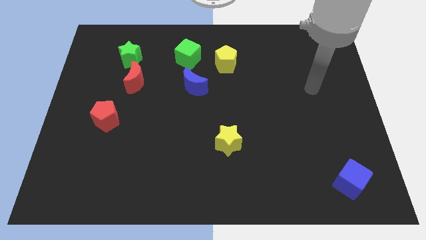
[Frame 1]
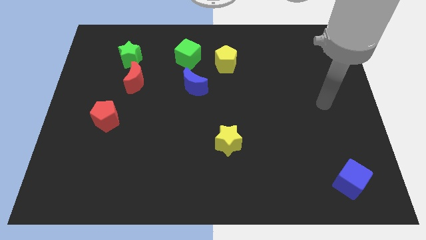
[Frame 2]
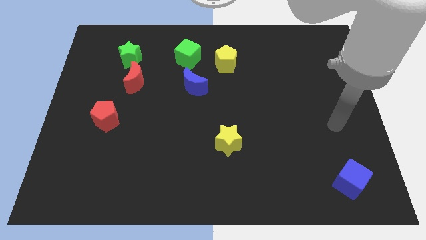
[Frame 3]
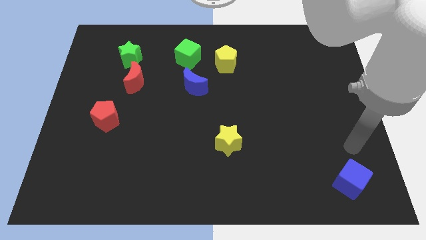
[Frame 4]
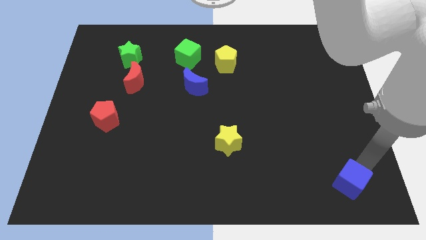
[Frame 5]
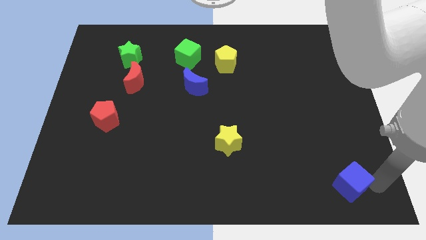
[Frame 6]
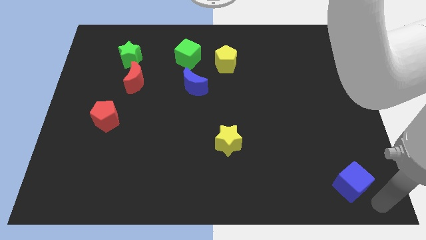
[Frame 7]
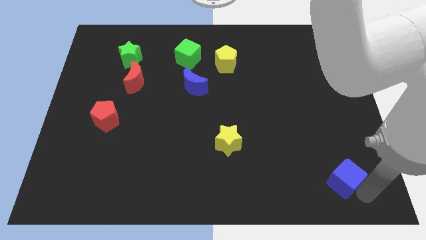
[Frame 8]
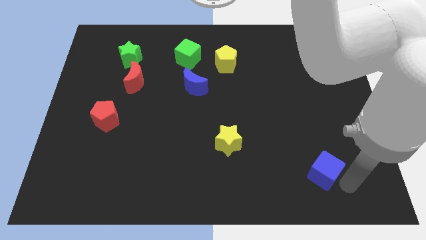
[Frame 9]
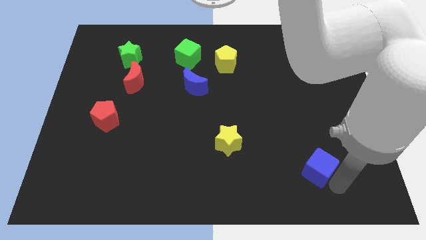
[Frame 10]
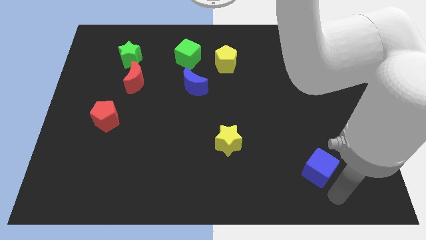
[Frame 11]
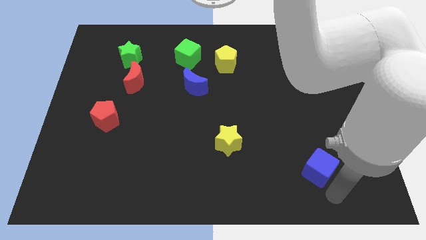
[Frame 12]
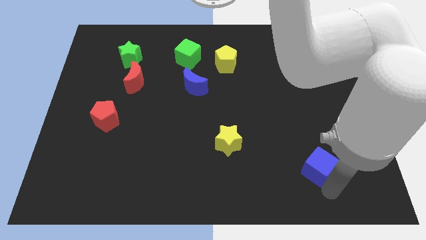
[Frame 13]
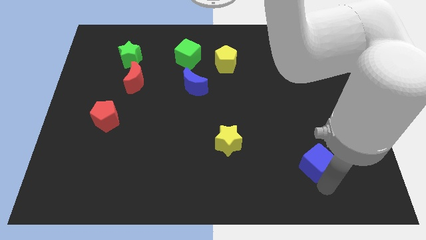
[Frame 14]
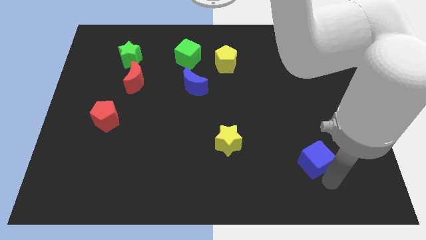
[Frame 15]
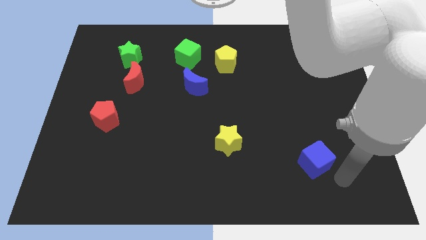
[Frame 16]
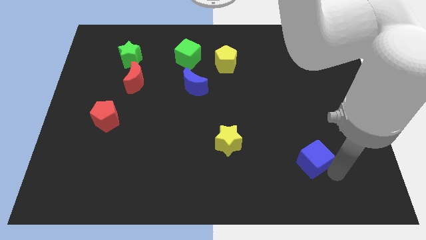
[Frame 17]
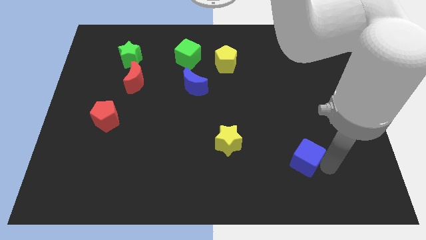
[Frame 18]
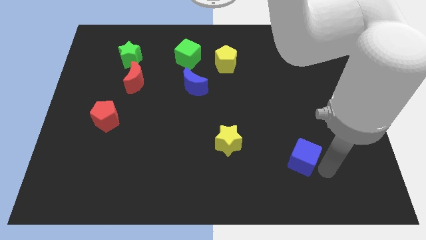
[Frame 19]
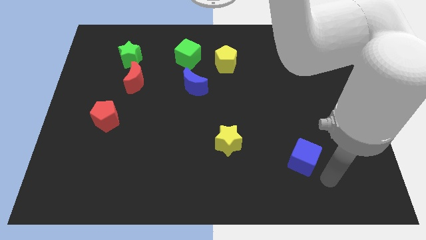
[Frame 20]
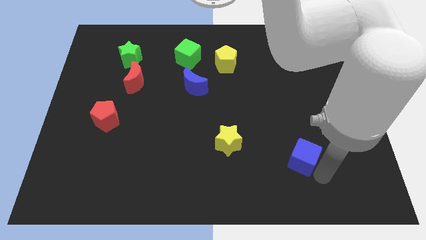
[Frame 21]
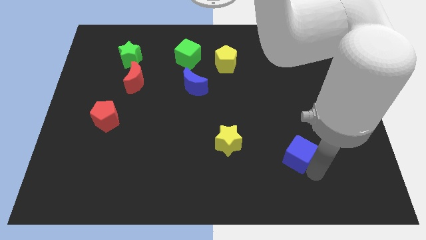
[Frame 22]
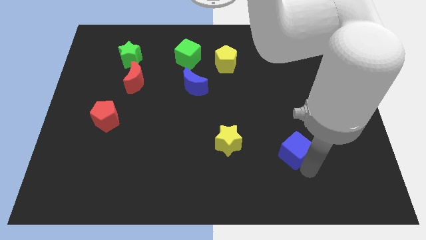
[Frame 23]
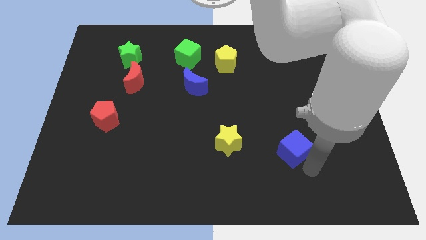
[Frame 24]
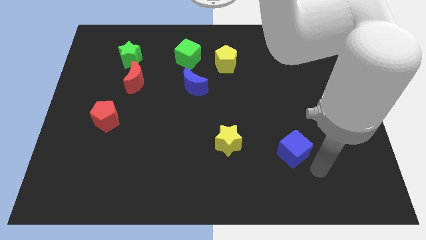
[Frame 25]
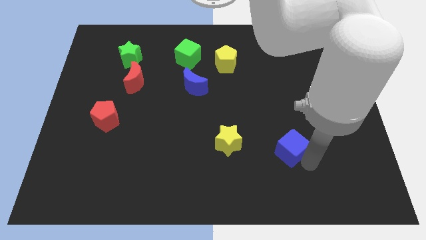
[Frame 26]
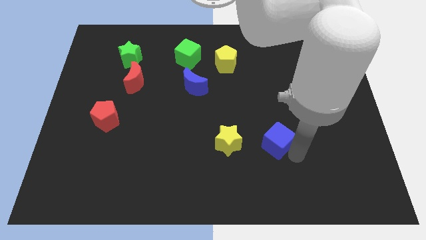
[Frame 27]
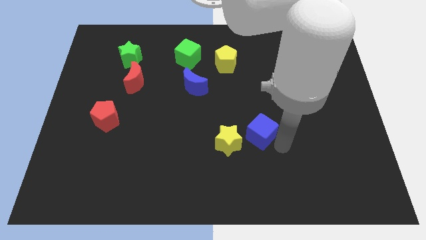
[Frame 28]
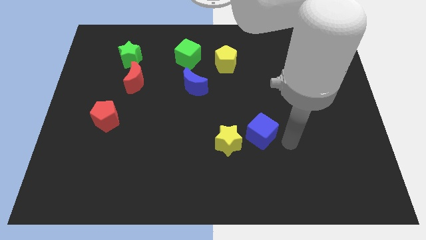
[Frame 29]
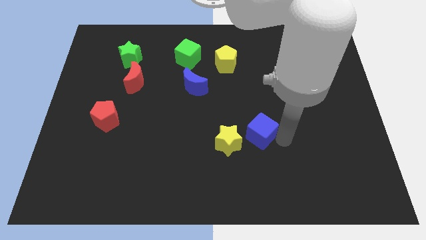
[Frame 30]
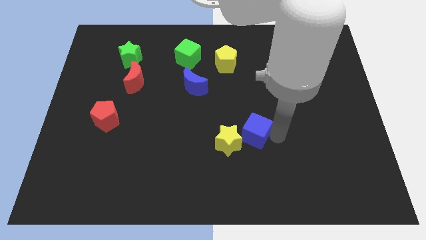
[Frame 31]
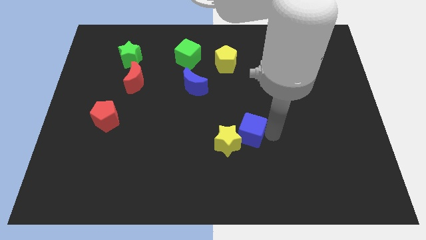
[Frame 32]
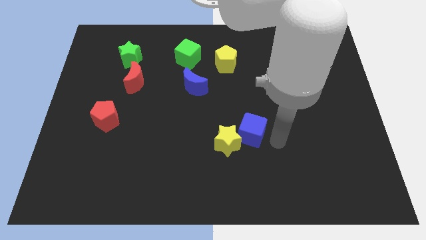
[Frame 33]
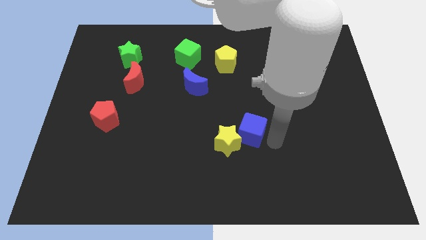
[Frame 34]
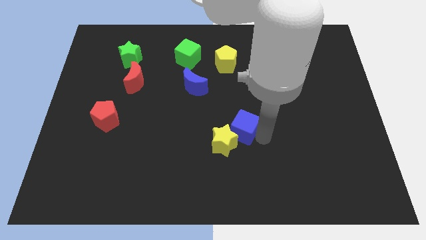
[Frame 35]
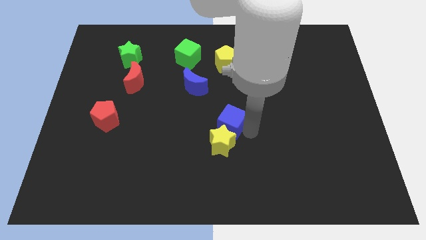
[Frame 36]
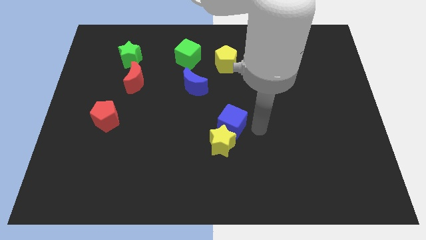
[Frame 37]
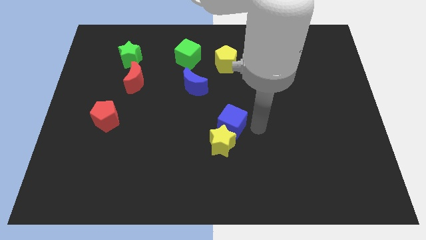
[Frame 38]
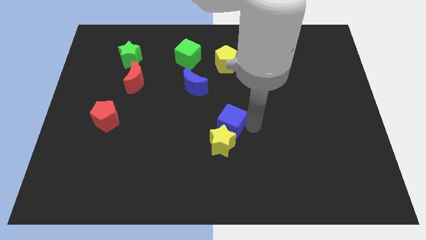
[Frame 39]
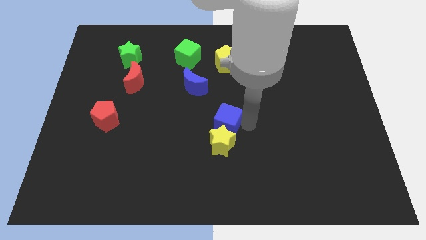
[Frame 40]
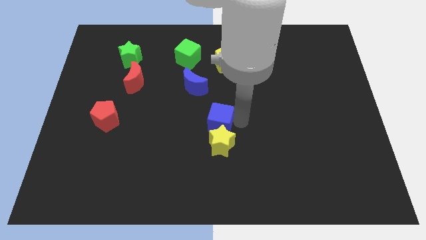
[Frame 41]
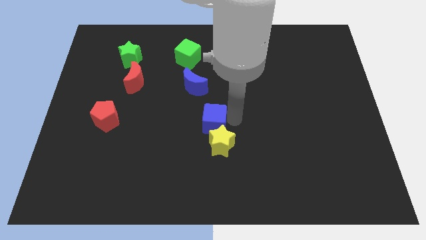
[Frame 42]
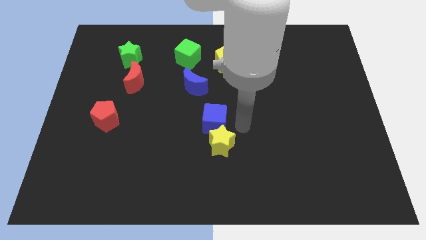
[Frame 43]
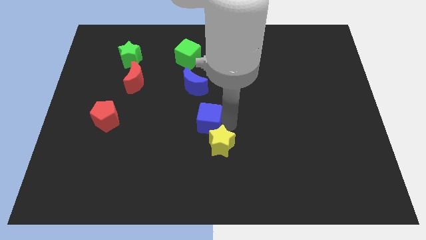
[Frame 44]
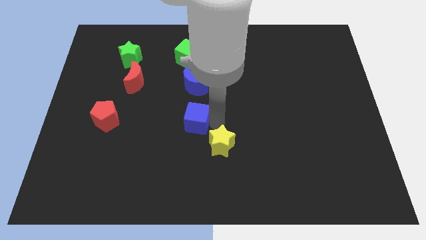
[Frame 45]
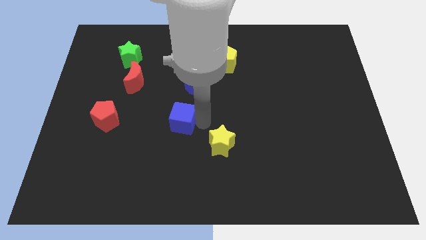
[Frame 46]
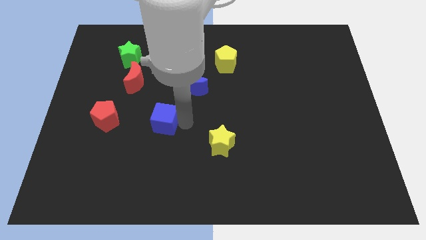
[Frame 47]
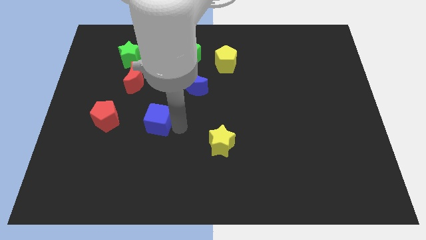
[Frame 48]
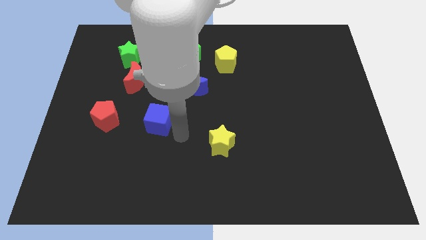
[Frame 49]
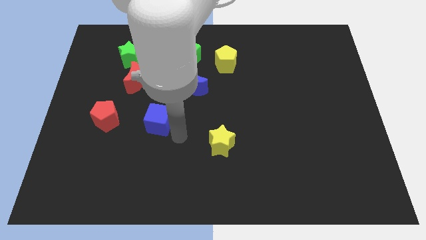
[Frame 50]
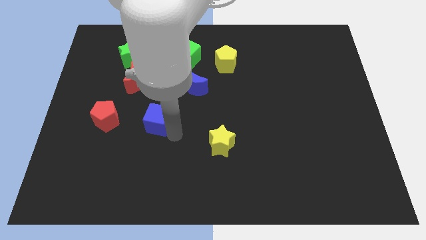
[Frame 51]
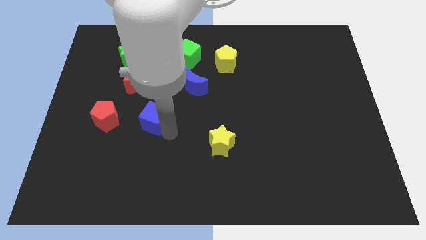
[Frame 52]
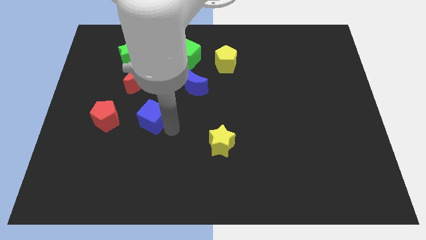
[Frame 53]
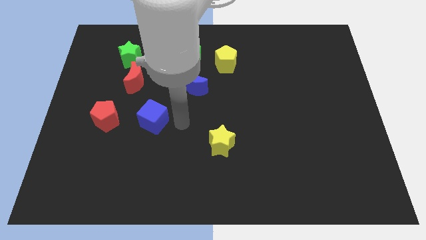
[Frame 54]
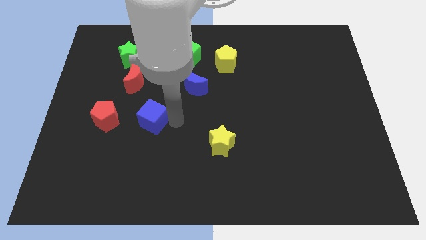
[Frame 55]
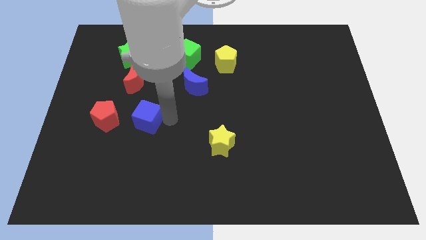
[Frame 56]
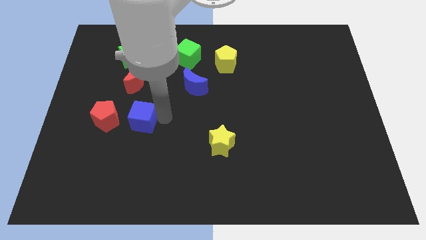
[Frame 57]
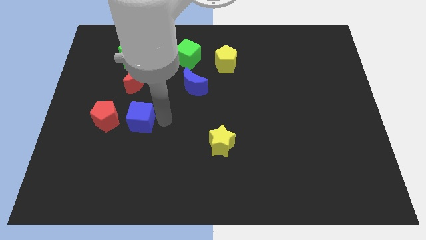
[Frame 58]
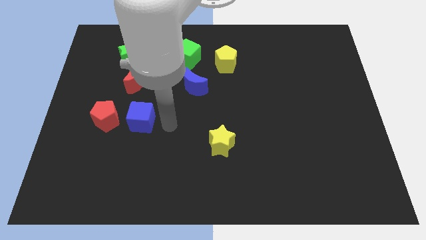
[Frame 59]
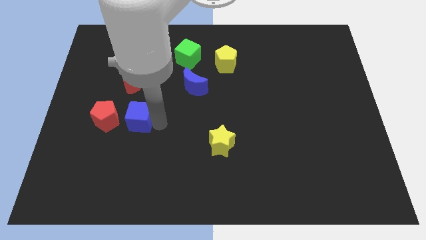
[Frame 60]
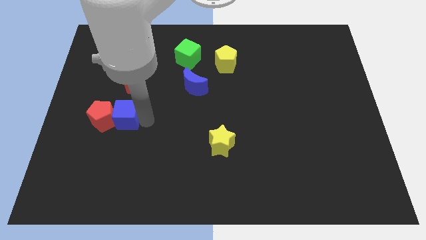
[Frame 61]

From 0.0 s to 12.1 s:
push the blue cube towards the red pentagon

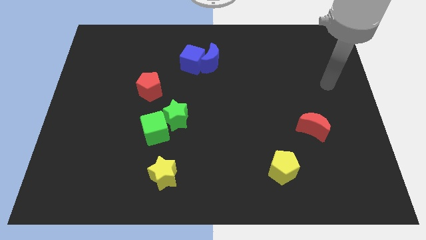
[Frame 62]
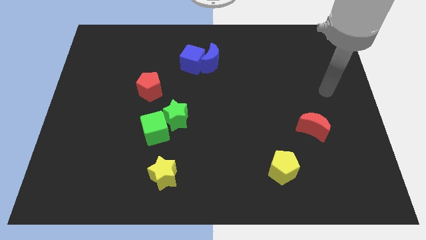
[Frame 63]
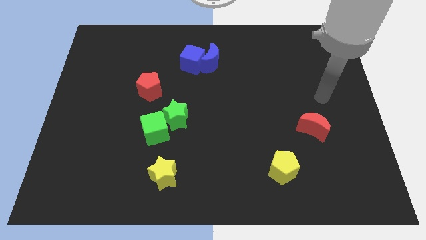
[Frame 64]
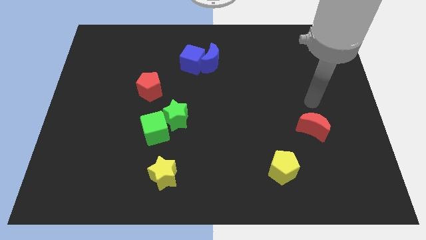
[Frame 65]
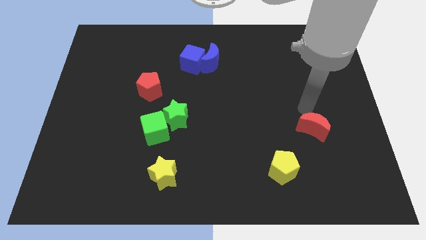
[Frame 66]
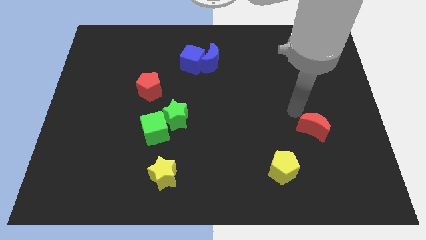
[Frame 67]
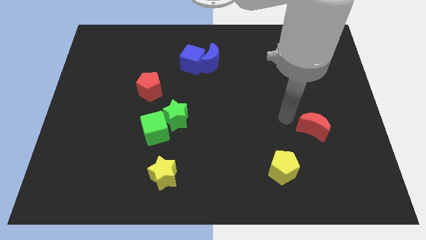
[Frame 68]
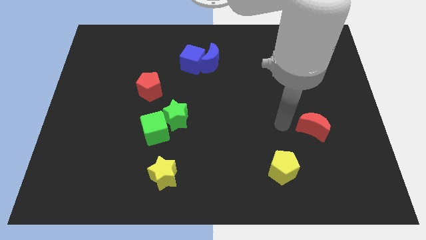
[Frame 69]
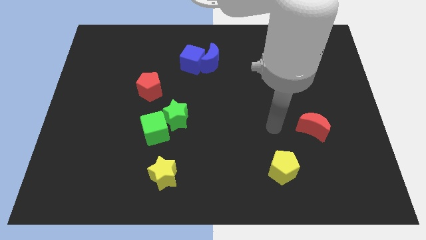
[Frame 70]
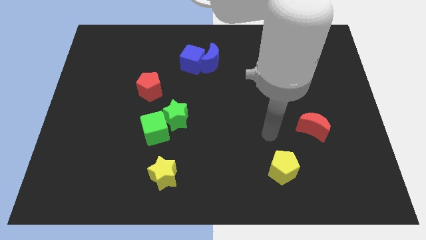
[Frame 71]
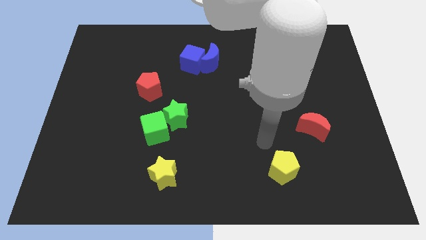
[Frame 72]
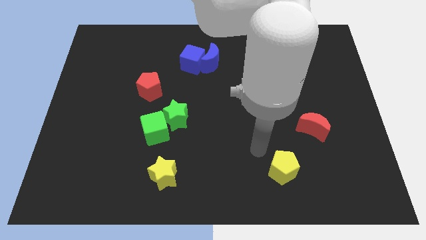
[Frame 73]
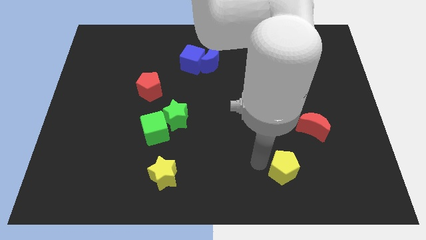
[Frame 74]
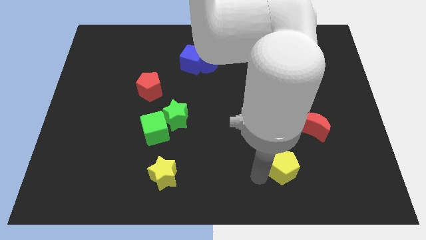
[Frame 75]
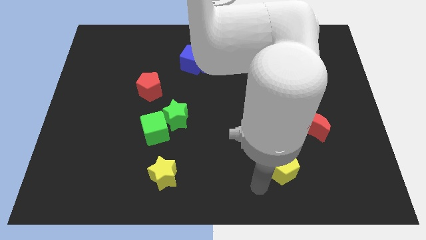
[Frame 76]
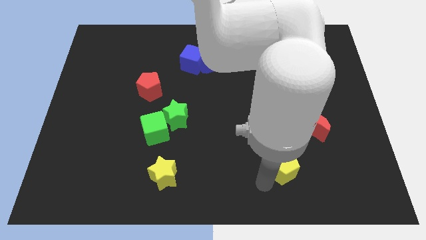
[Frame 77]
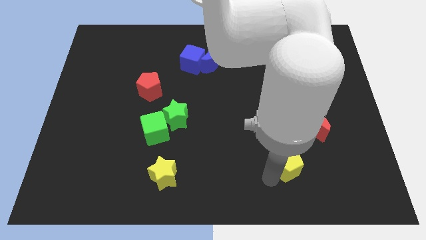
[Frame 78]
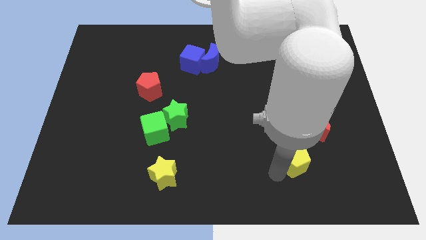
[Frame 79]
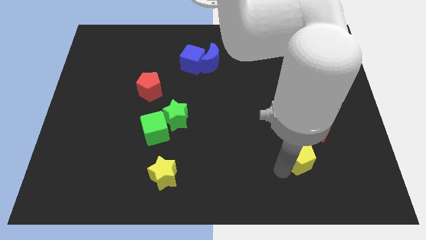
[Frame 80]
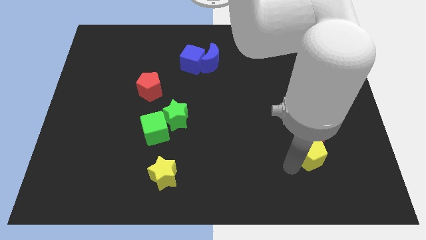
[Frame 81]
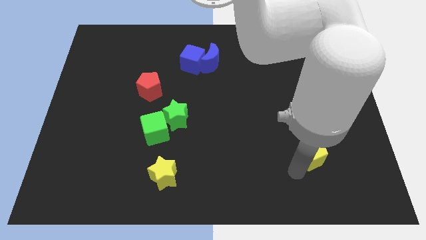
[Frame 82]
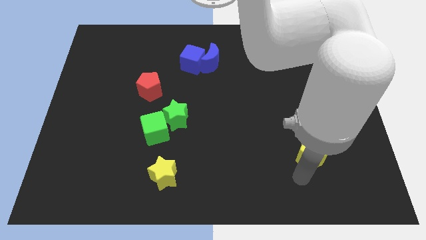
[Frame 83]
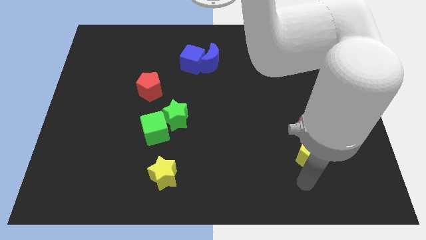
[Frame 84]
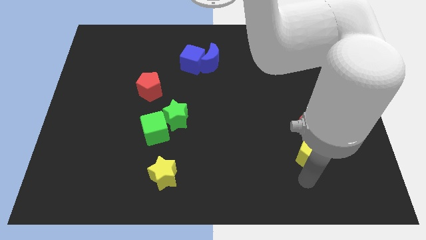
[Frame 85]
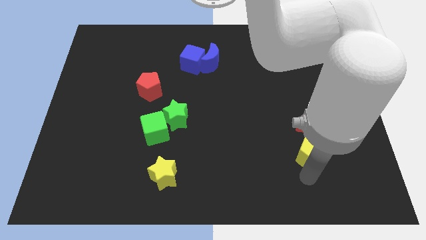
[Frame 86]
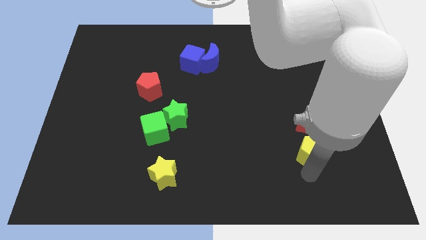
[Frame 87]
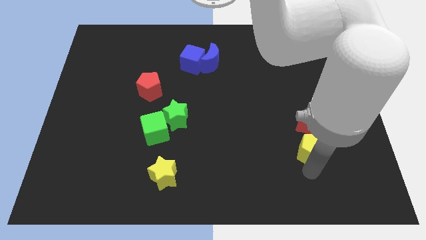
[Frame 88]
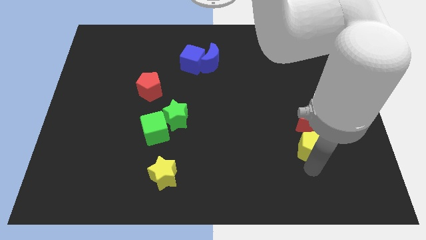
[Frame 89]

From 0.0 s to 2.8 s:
push the yellow pentagon close to the red moon
